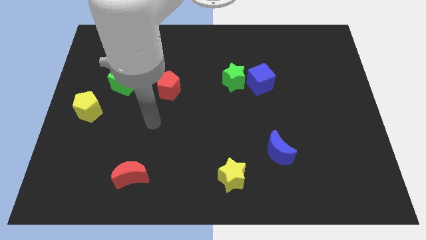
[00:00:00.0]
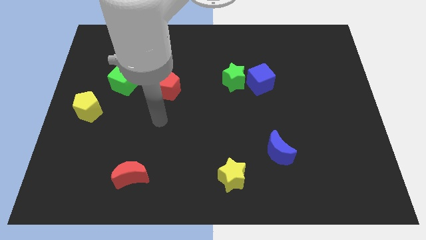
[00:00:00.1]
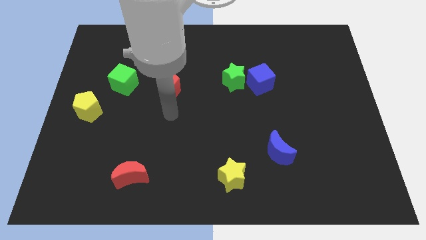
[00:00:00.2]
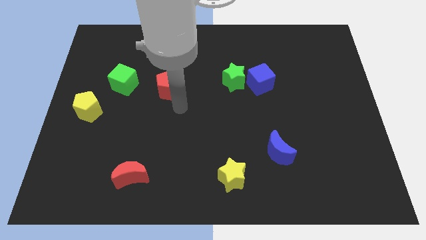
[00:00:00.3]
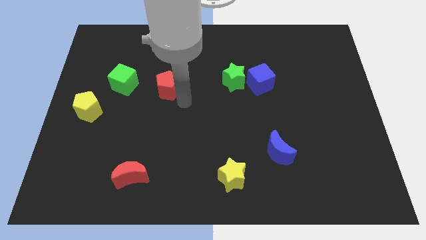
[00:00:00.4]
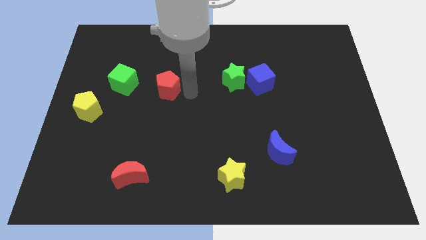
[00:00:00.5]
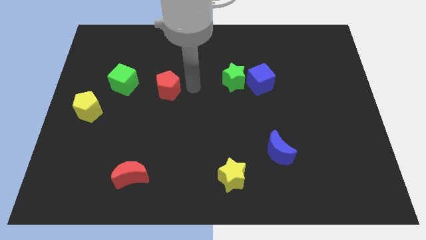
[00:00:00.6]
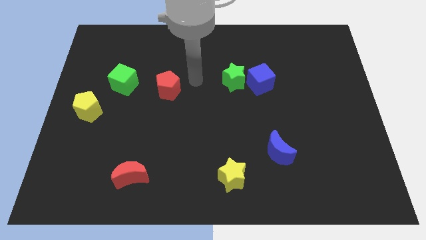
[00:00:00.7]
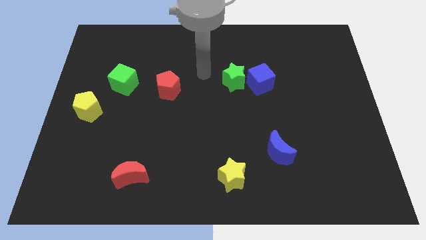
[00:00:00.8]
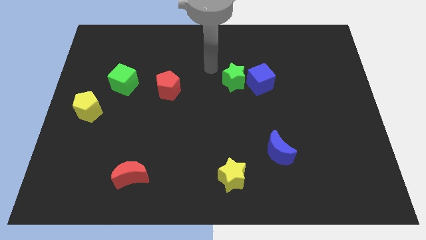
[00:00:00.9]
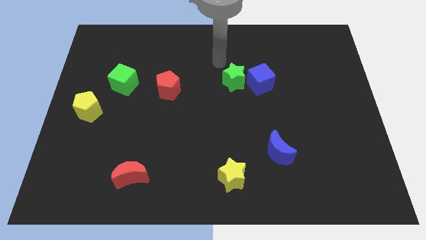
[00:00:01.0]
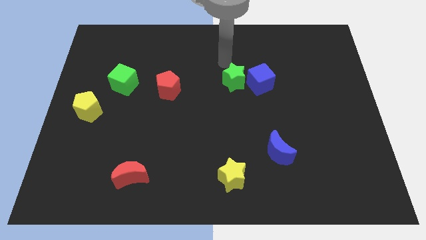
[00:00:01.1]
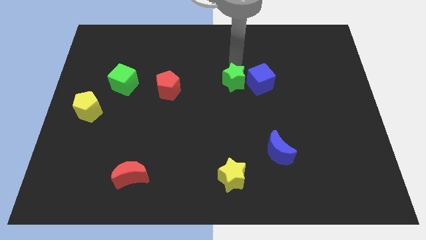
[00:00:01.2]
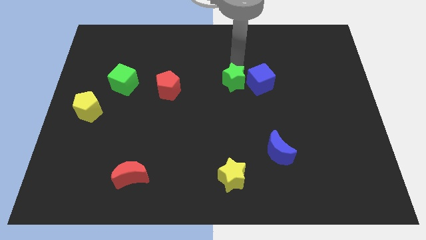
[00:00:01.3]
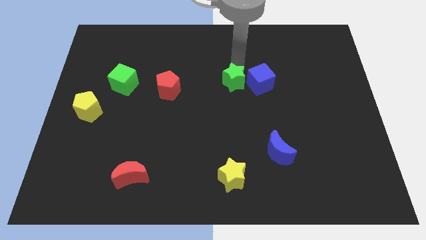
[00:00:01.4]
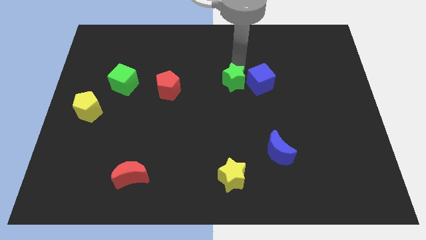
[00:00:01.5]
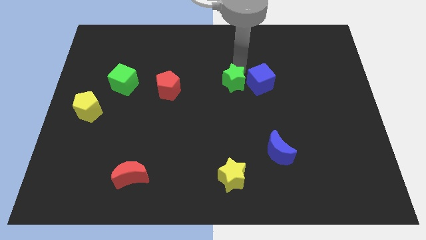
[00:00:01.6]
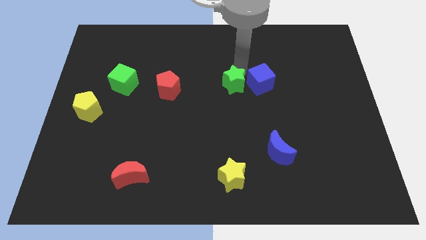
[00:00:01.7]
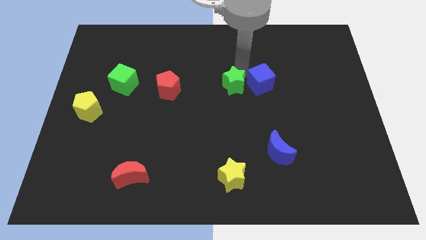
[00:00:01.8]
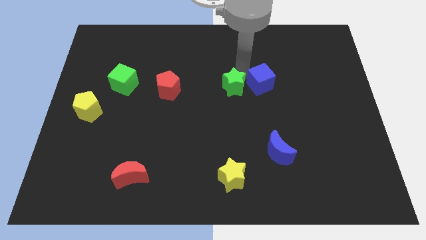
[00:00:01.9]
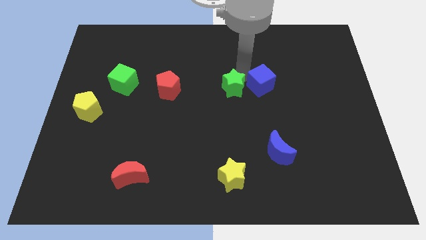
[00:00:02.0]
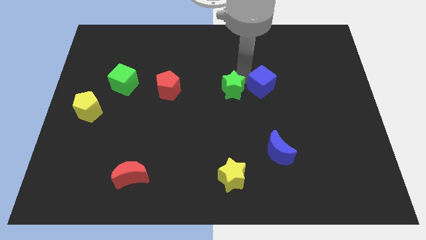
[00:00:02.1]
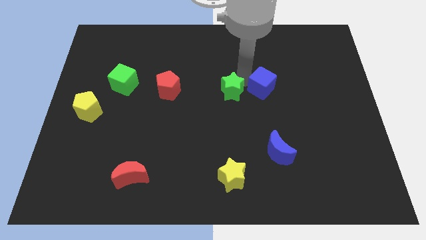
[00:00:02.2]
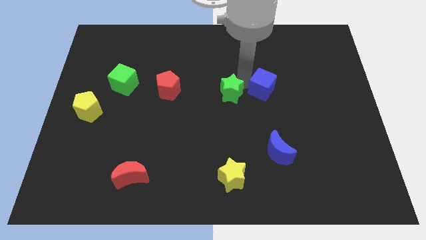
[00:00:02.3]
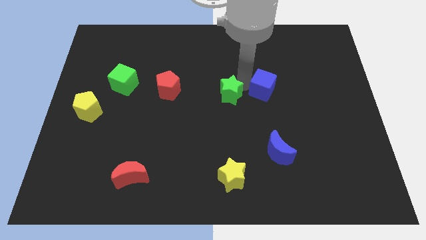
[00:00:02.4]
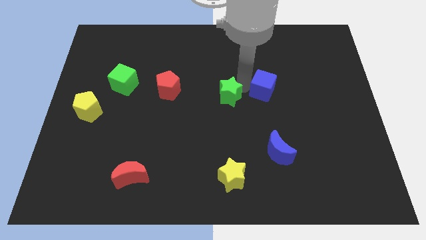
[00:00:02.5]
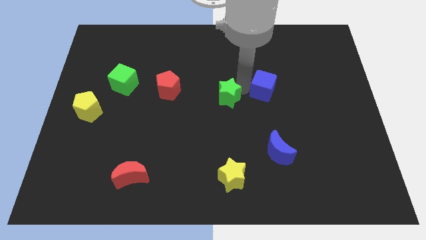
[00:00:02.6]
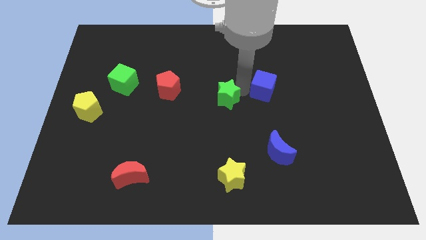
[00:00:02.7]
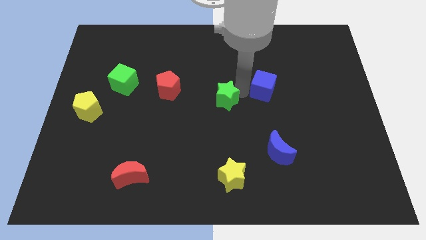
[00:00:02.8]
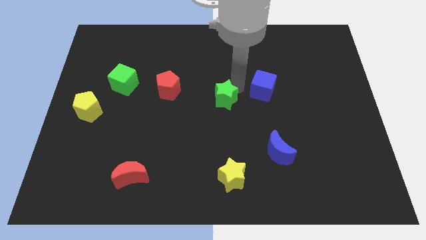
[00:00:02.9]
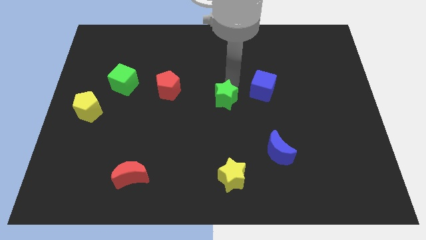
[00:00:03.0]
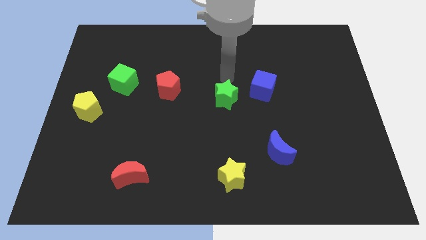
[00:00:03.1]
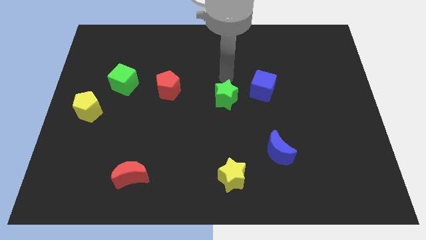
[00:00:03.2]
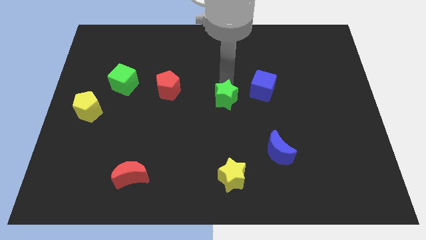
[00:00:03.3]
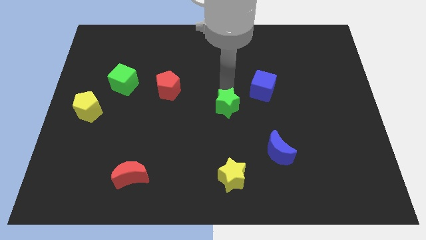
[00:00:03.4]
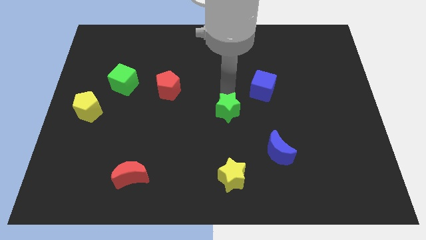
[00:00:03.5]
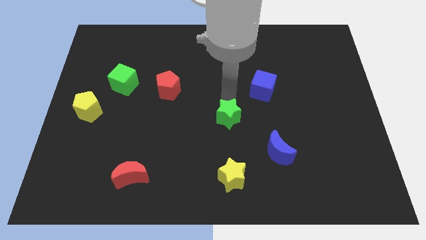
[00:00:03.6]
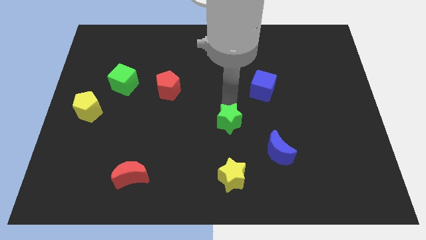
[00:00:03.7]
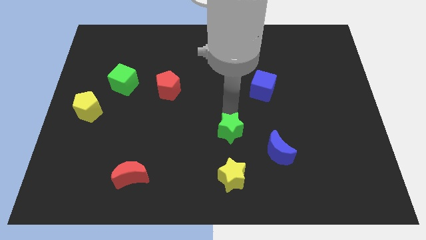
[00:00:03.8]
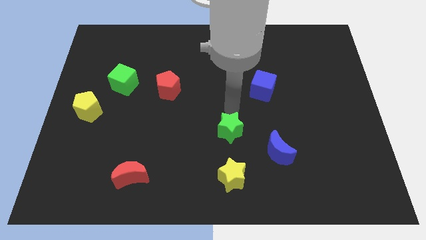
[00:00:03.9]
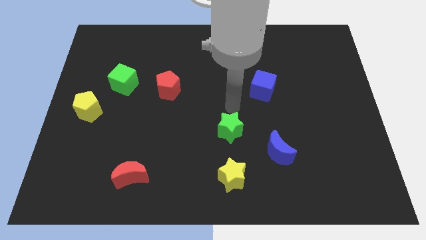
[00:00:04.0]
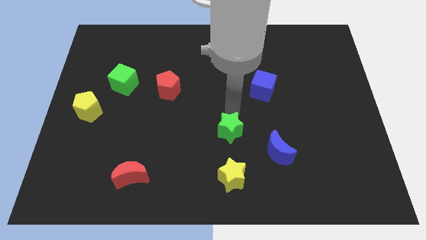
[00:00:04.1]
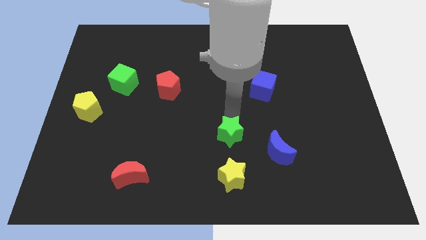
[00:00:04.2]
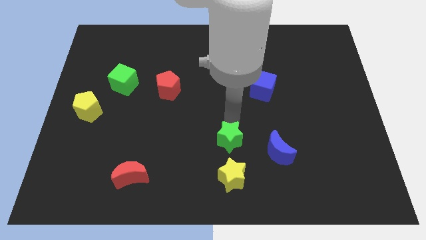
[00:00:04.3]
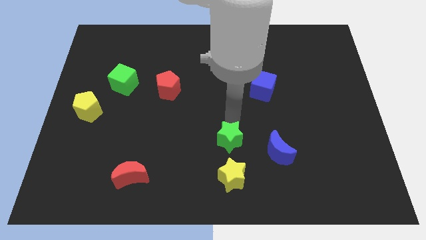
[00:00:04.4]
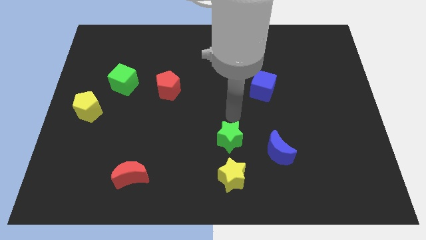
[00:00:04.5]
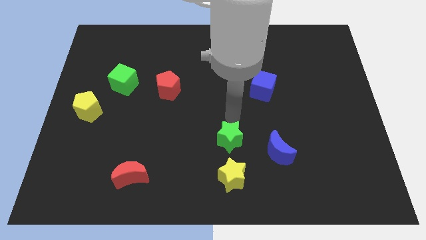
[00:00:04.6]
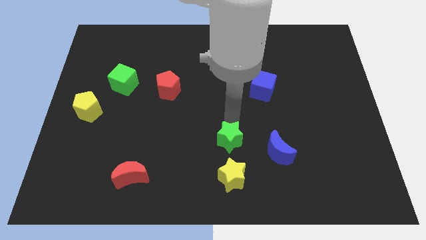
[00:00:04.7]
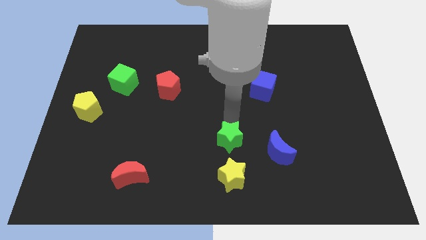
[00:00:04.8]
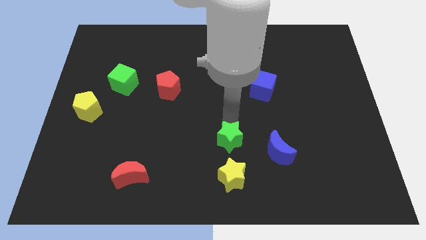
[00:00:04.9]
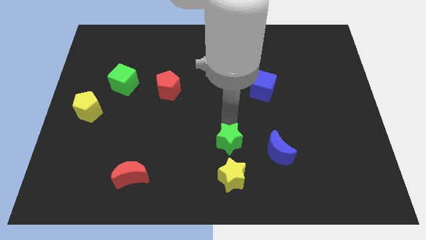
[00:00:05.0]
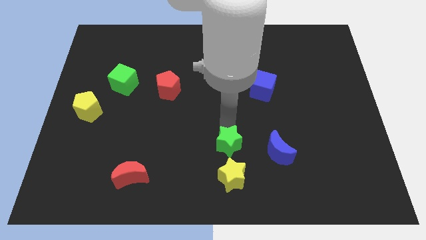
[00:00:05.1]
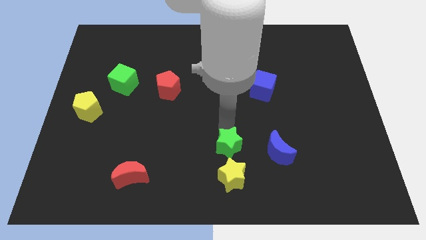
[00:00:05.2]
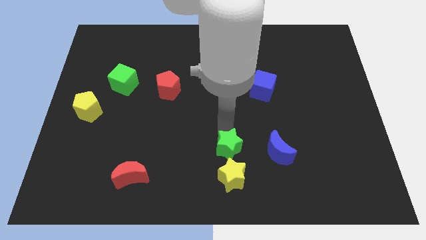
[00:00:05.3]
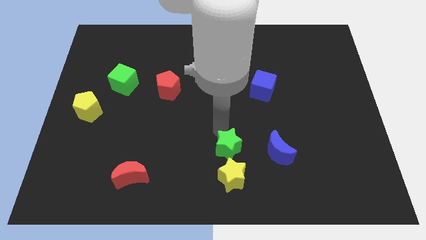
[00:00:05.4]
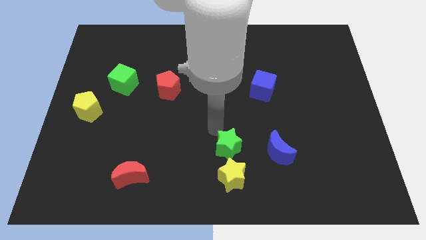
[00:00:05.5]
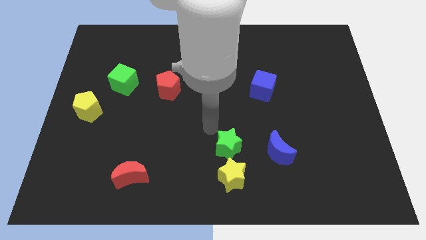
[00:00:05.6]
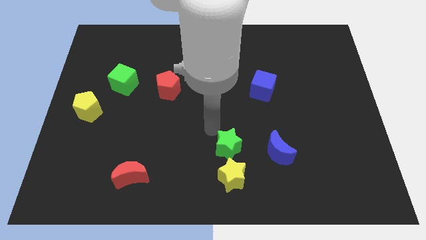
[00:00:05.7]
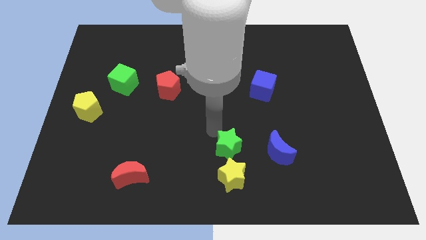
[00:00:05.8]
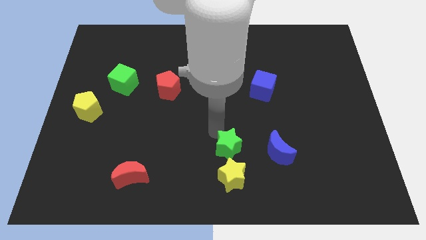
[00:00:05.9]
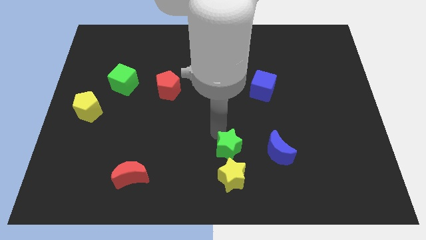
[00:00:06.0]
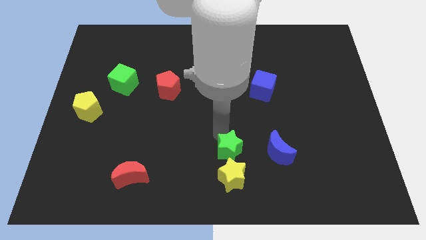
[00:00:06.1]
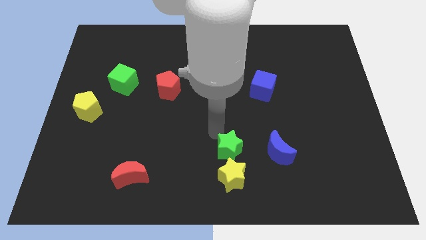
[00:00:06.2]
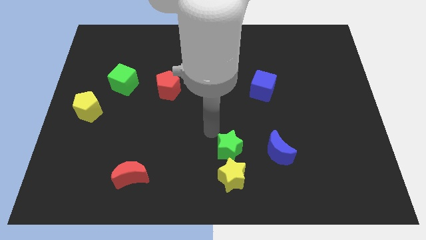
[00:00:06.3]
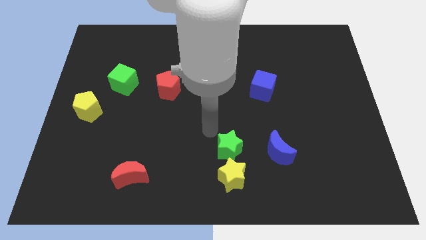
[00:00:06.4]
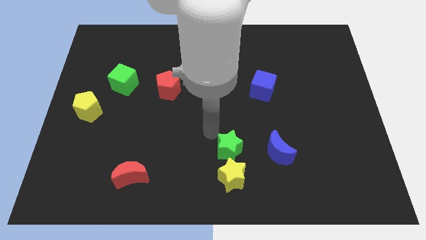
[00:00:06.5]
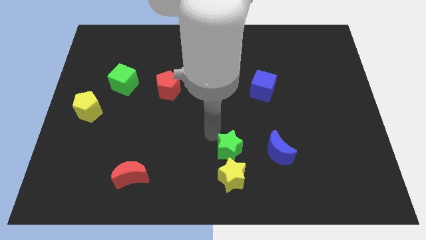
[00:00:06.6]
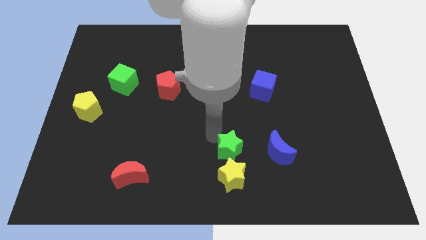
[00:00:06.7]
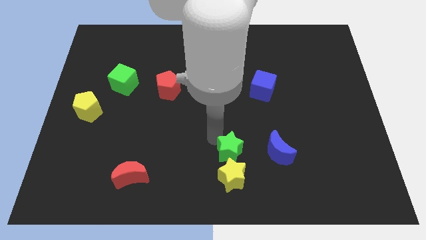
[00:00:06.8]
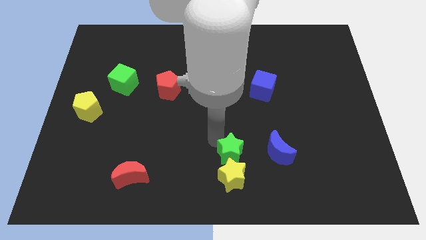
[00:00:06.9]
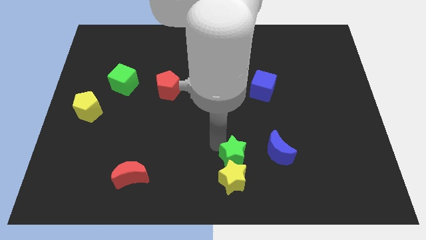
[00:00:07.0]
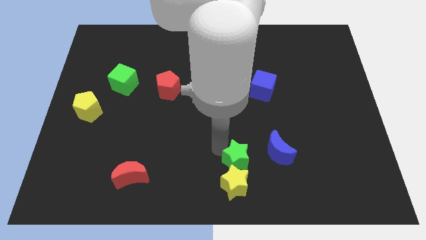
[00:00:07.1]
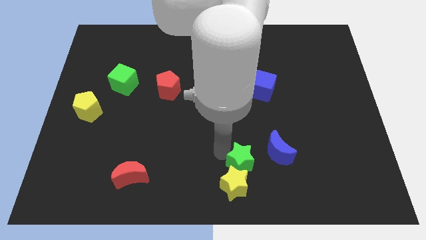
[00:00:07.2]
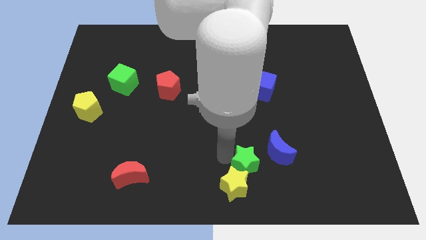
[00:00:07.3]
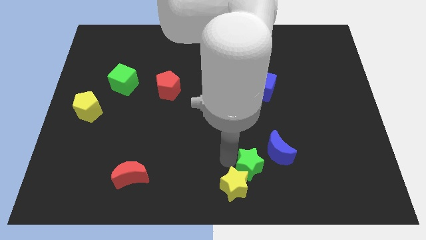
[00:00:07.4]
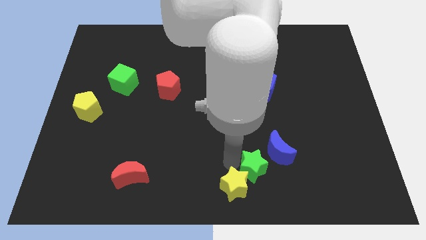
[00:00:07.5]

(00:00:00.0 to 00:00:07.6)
slide the green star just right of the yellow star
